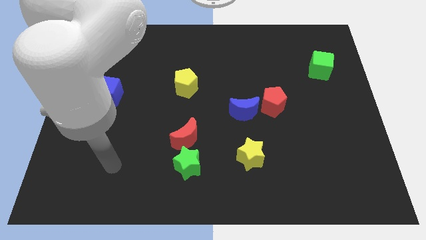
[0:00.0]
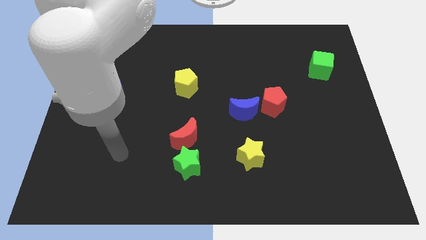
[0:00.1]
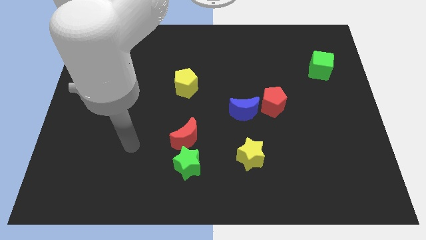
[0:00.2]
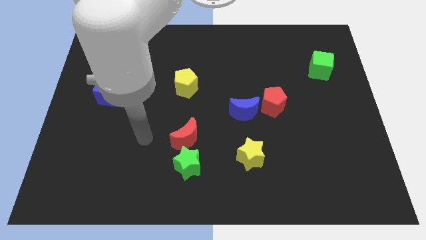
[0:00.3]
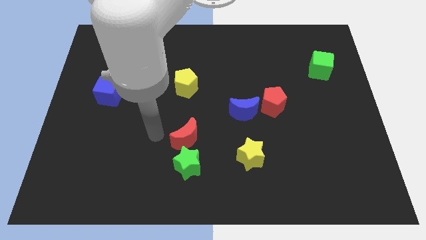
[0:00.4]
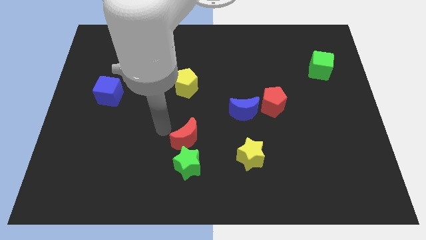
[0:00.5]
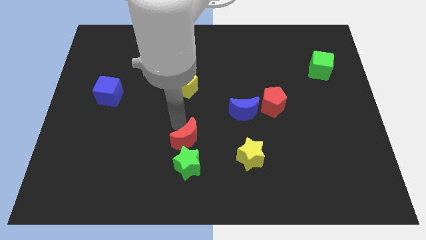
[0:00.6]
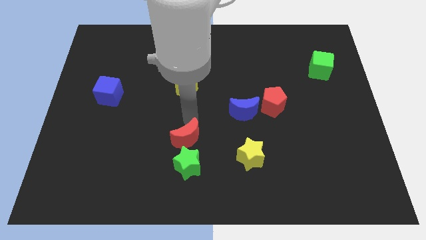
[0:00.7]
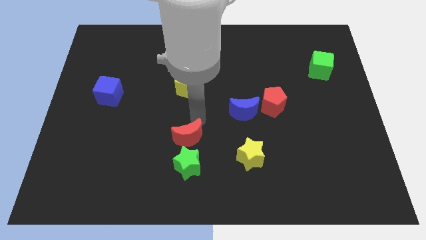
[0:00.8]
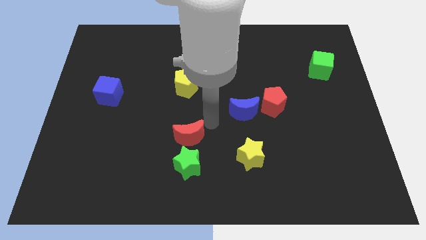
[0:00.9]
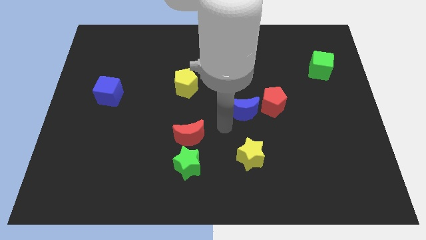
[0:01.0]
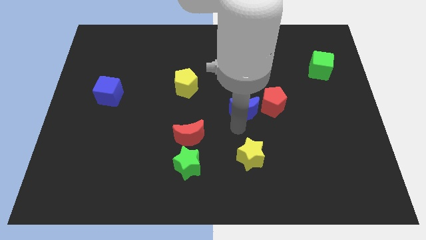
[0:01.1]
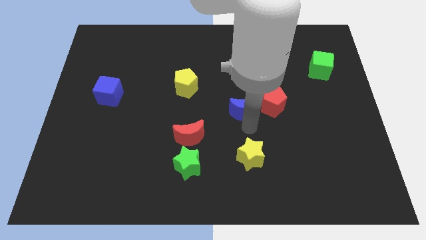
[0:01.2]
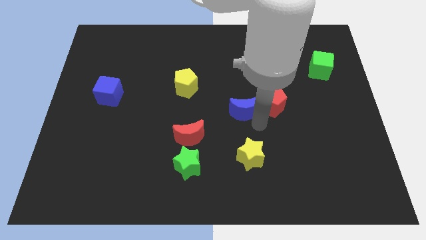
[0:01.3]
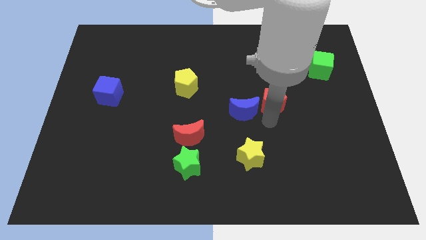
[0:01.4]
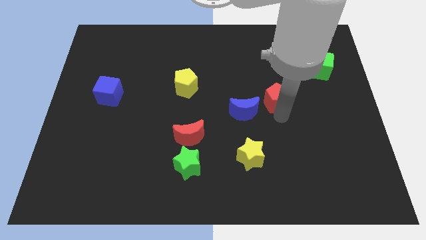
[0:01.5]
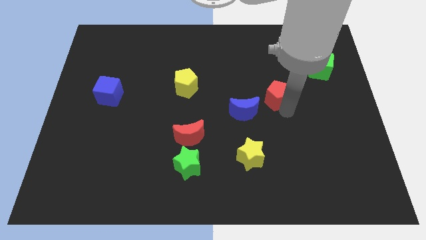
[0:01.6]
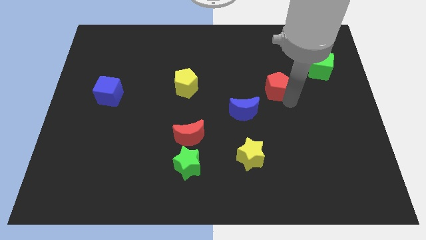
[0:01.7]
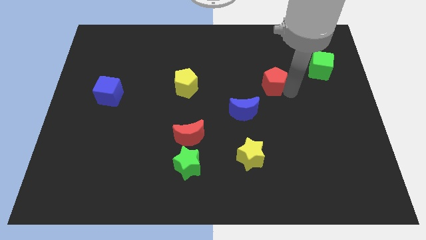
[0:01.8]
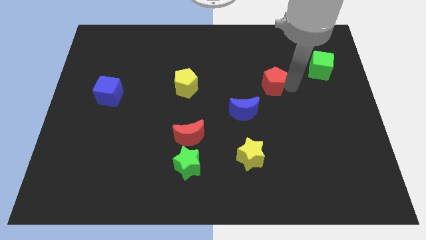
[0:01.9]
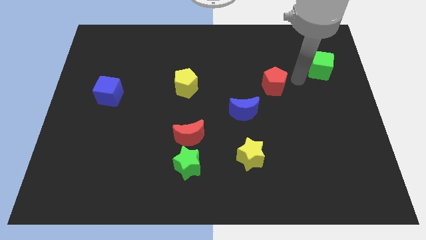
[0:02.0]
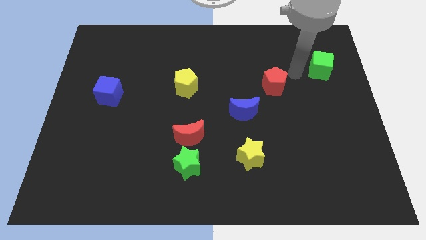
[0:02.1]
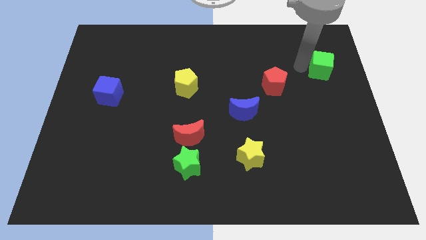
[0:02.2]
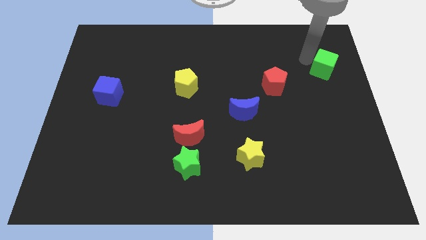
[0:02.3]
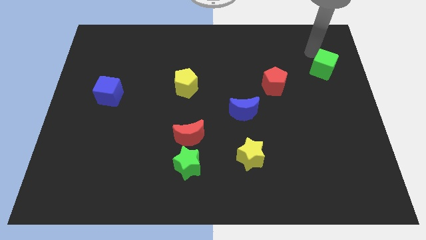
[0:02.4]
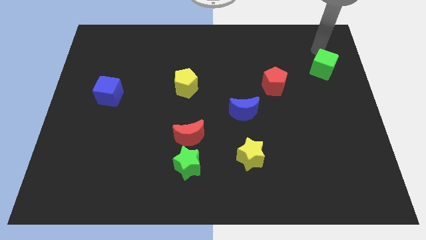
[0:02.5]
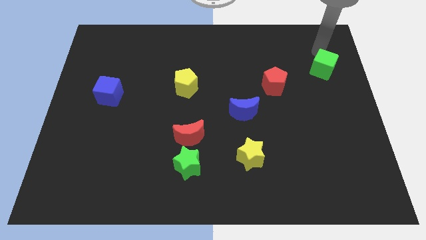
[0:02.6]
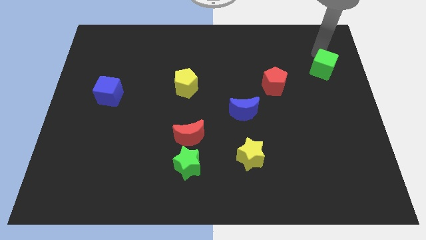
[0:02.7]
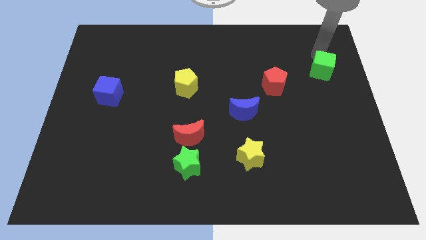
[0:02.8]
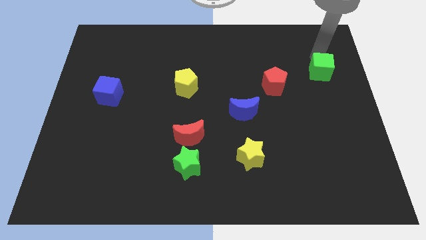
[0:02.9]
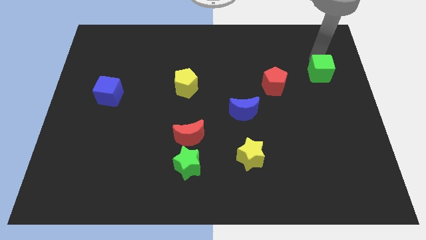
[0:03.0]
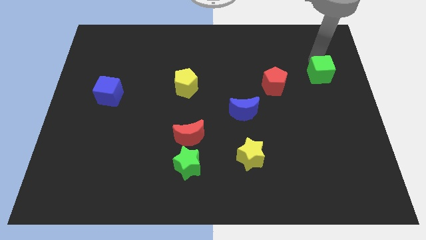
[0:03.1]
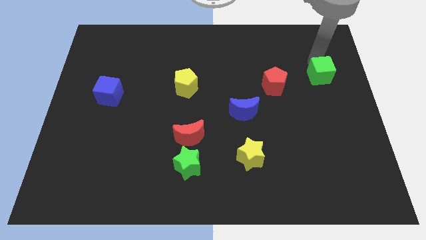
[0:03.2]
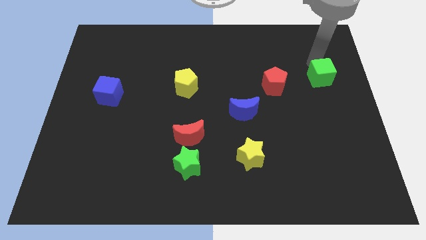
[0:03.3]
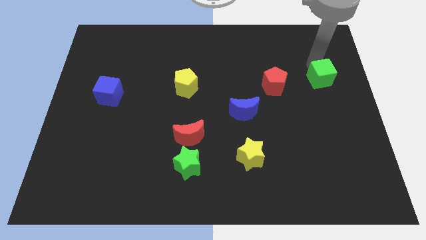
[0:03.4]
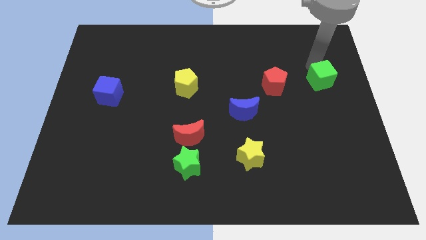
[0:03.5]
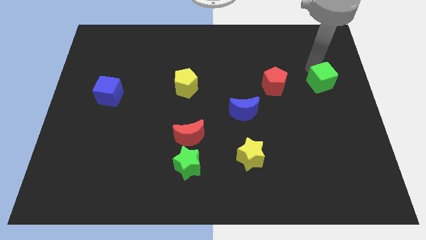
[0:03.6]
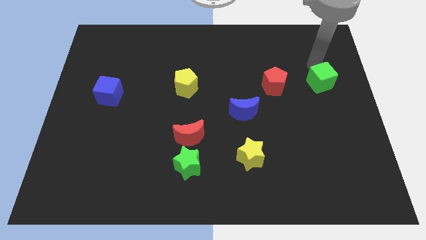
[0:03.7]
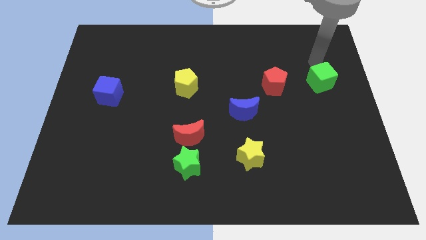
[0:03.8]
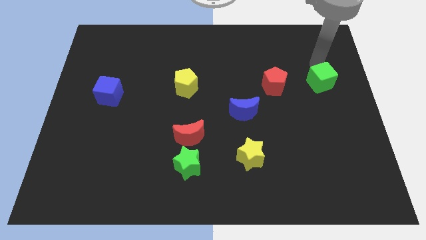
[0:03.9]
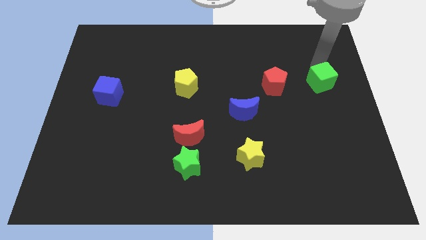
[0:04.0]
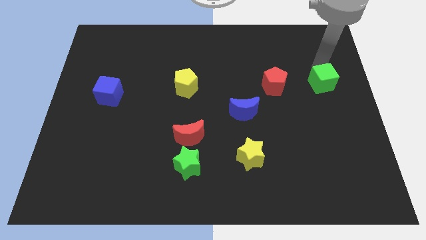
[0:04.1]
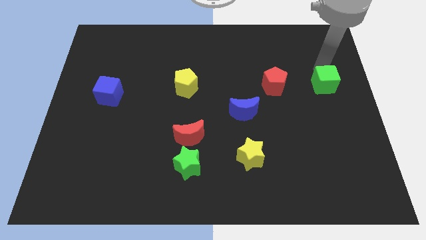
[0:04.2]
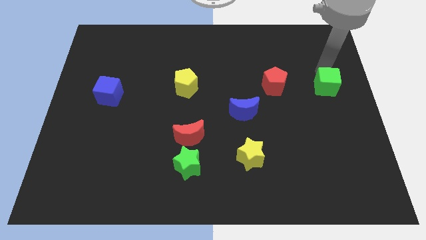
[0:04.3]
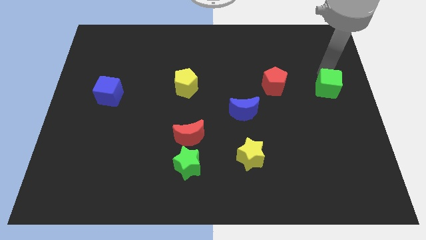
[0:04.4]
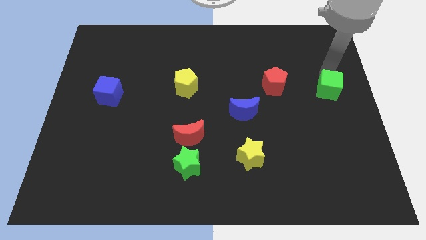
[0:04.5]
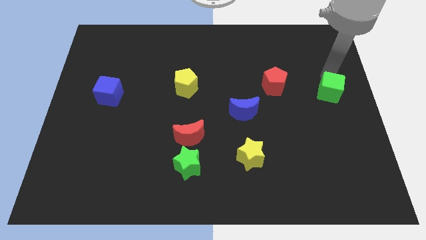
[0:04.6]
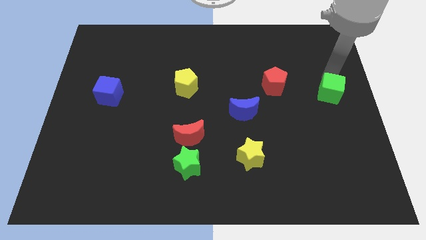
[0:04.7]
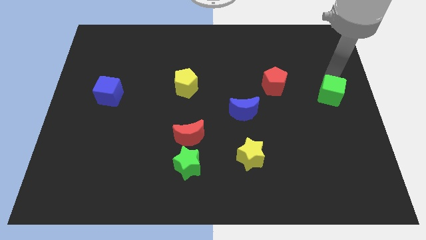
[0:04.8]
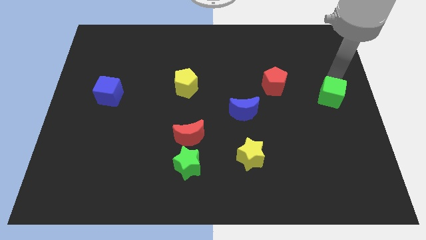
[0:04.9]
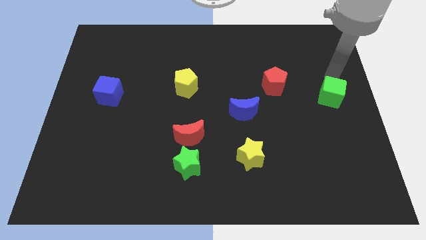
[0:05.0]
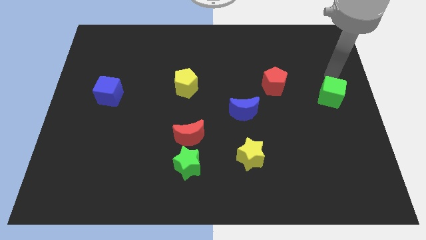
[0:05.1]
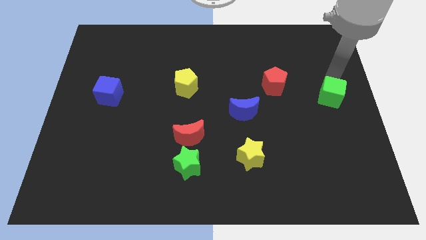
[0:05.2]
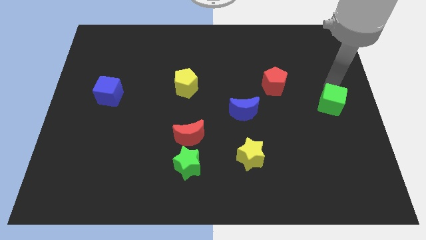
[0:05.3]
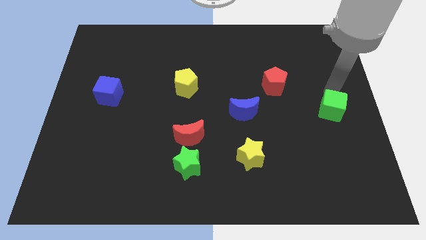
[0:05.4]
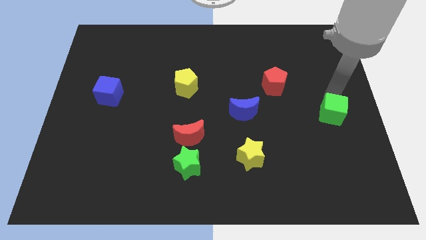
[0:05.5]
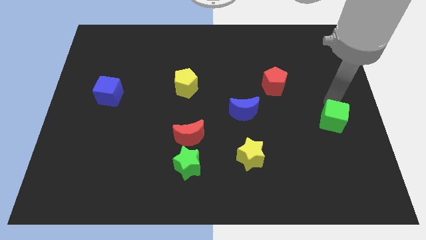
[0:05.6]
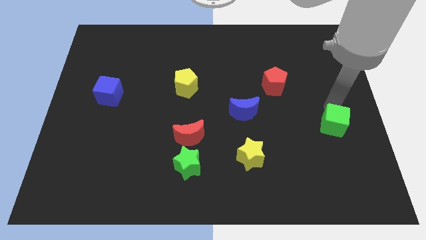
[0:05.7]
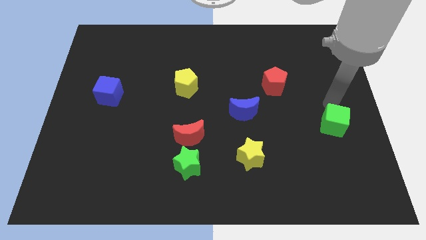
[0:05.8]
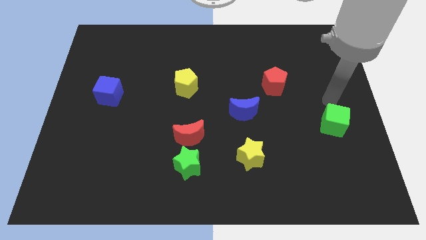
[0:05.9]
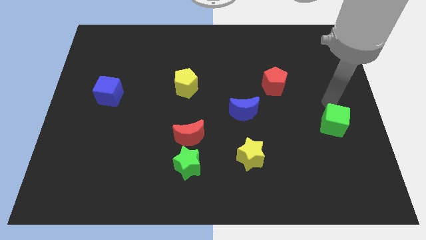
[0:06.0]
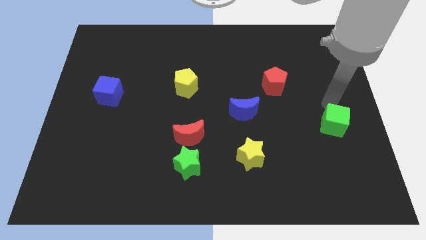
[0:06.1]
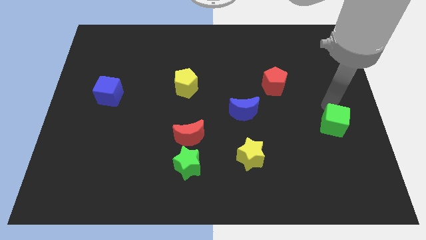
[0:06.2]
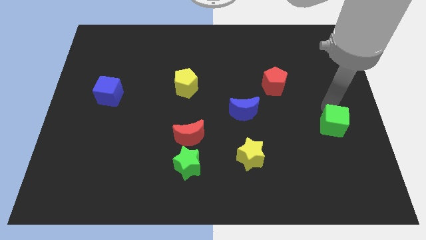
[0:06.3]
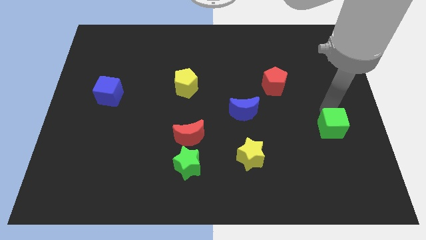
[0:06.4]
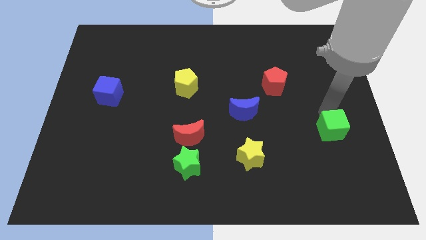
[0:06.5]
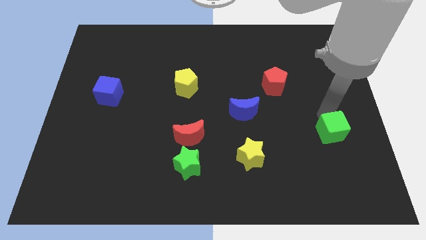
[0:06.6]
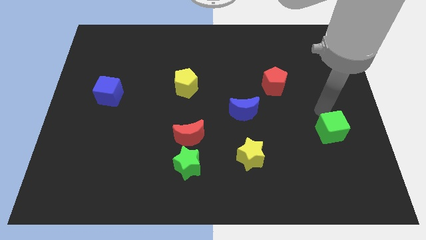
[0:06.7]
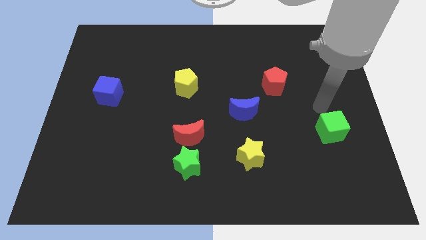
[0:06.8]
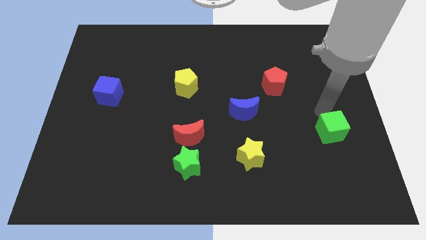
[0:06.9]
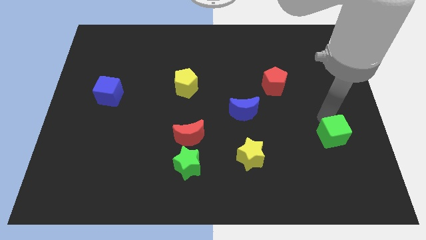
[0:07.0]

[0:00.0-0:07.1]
move the green cube downwards

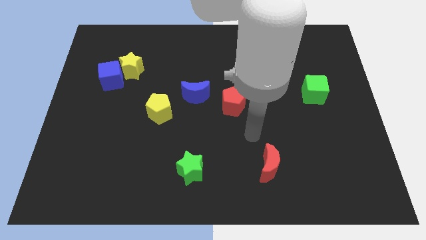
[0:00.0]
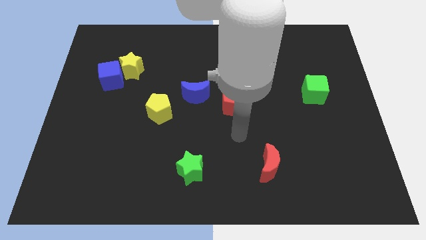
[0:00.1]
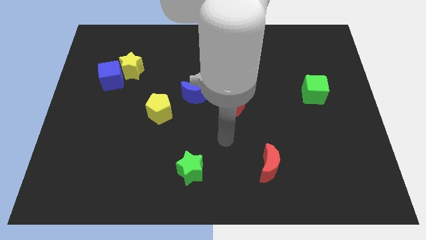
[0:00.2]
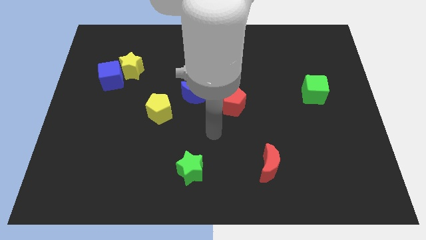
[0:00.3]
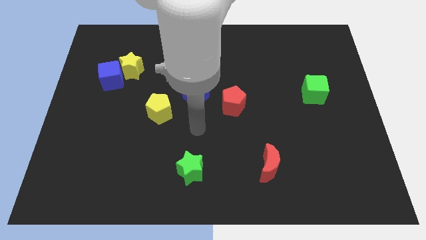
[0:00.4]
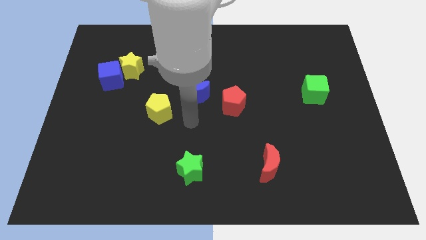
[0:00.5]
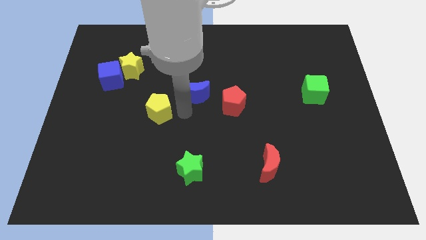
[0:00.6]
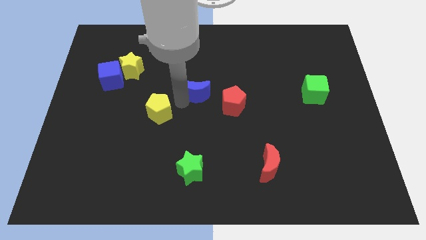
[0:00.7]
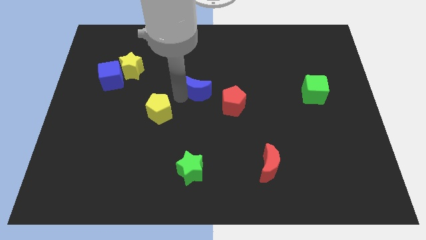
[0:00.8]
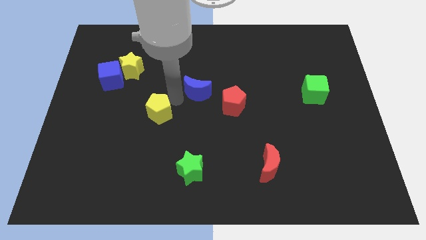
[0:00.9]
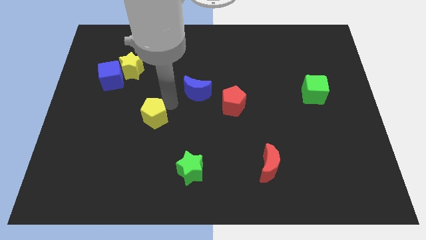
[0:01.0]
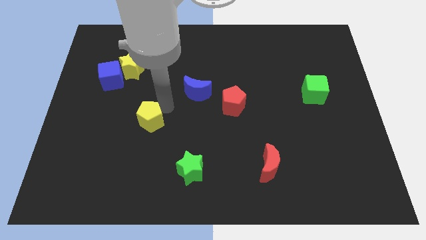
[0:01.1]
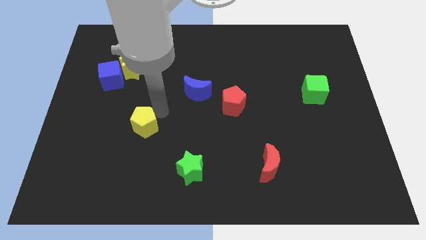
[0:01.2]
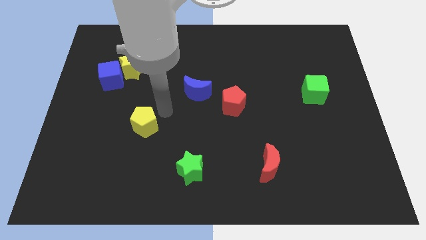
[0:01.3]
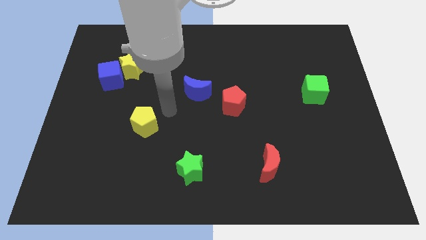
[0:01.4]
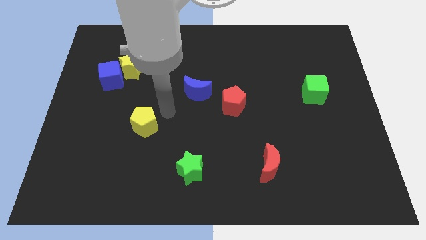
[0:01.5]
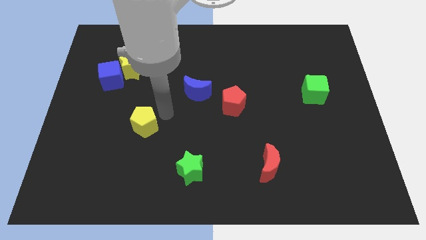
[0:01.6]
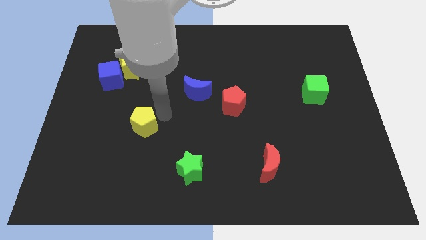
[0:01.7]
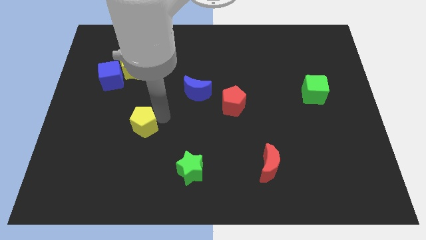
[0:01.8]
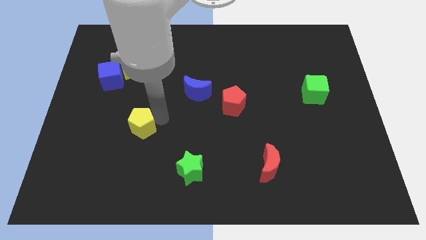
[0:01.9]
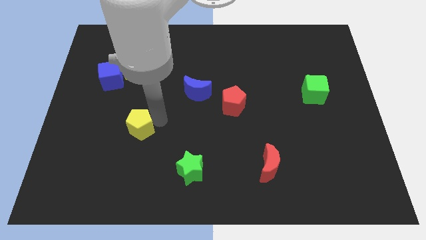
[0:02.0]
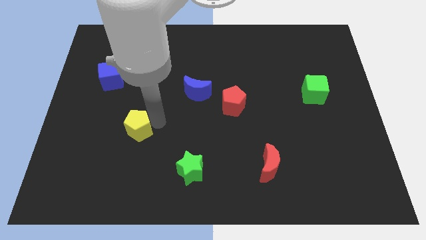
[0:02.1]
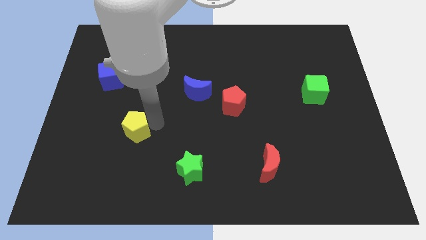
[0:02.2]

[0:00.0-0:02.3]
move the yellow pentagon a little diagonally downwards and left
